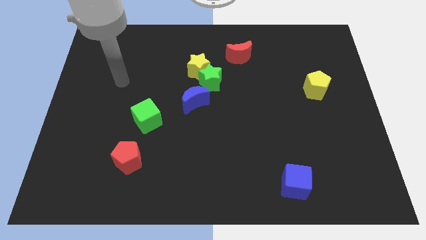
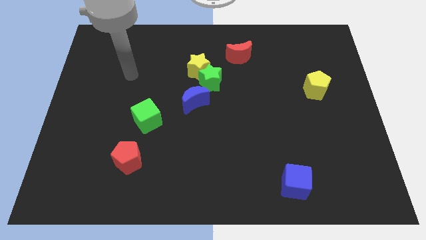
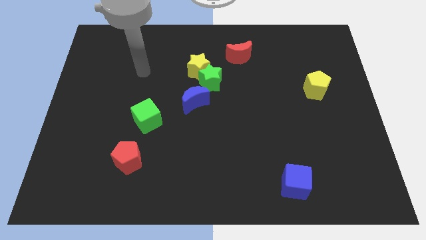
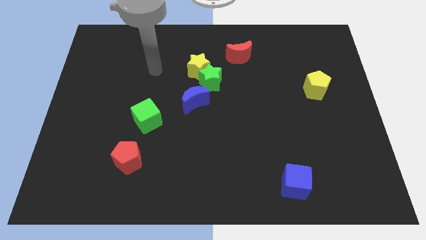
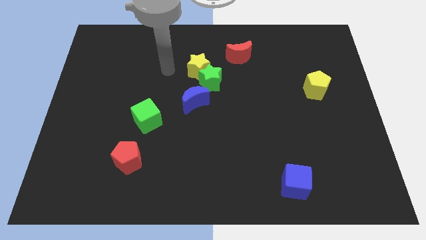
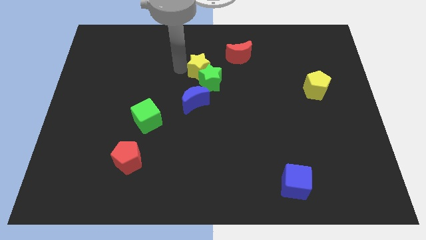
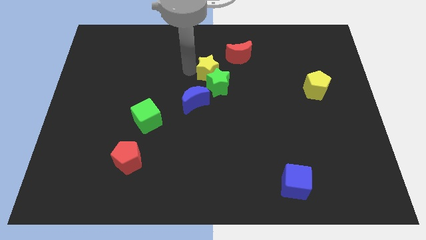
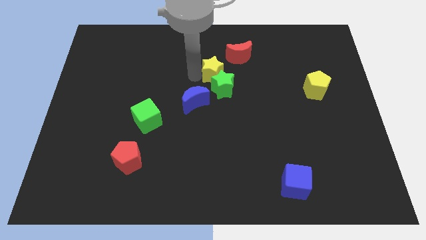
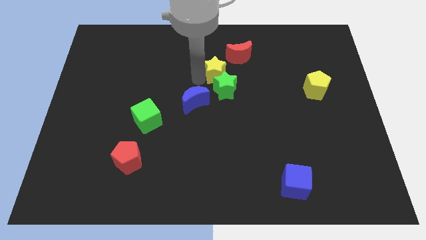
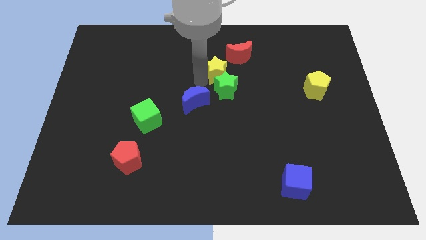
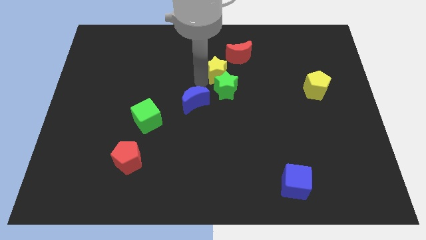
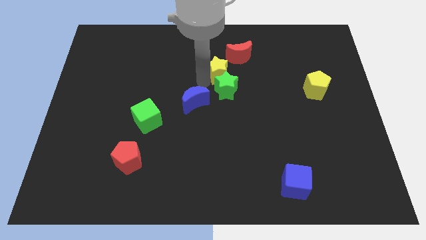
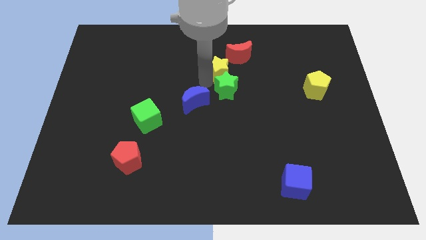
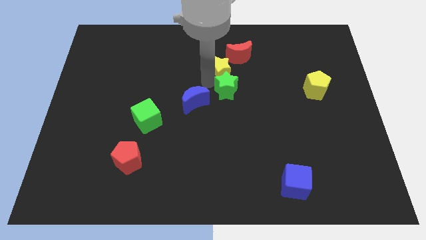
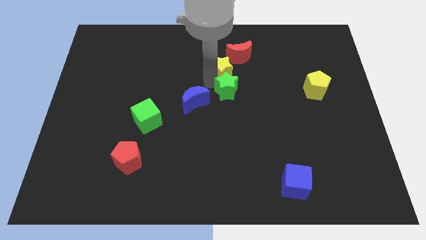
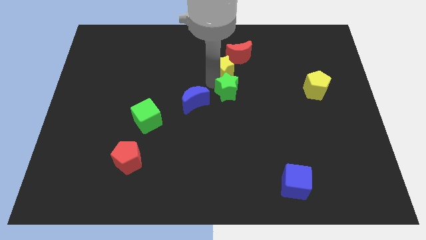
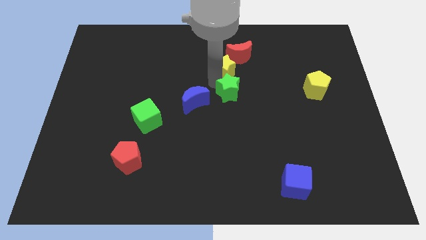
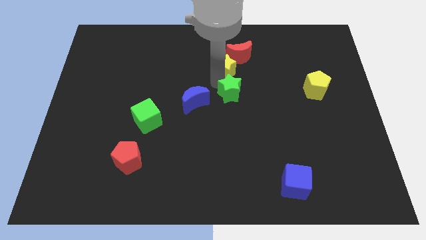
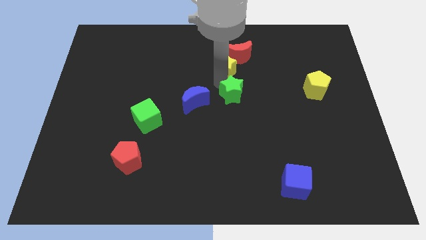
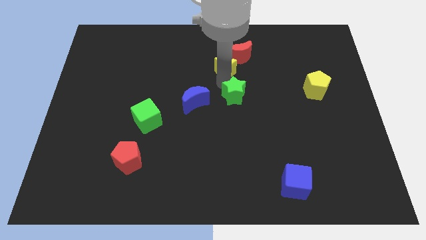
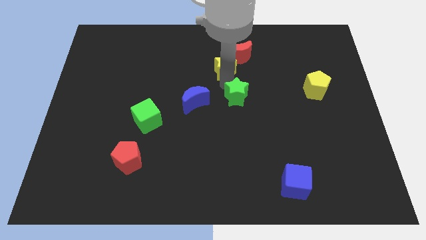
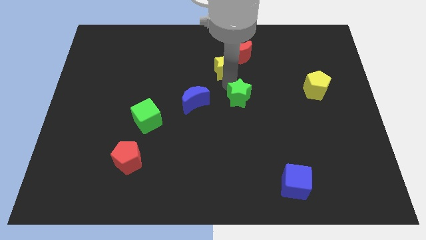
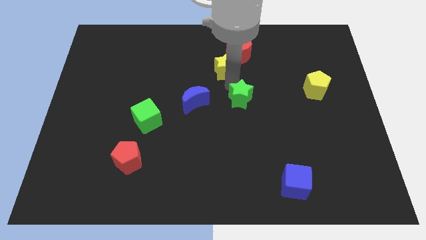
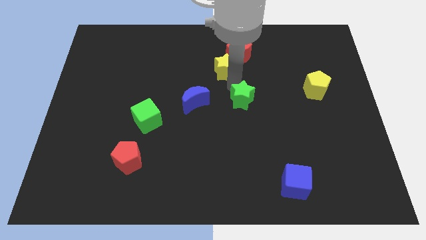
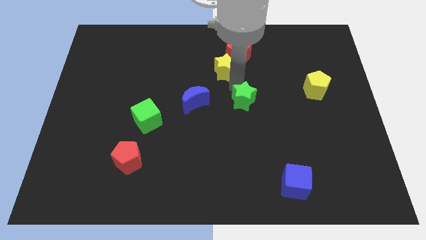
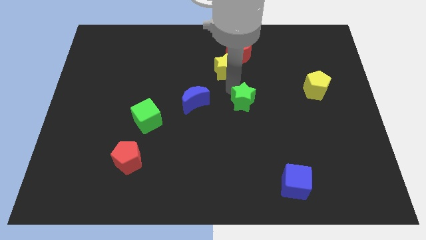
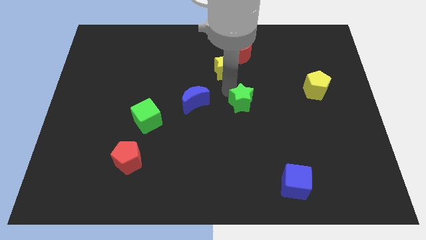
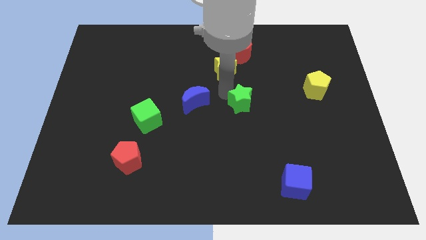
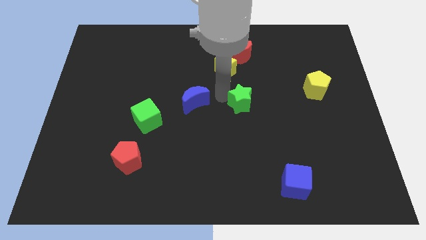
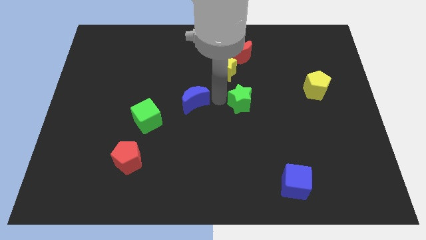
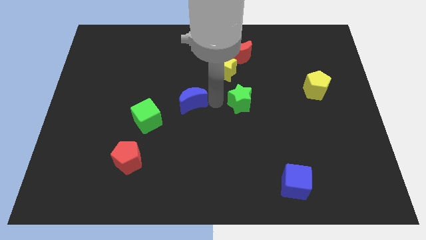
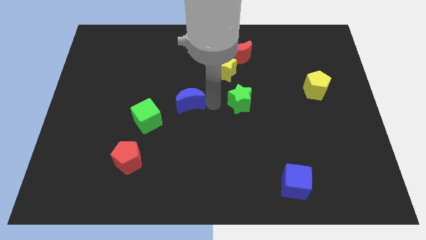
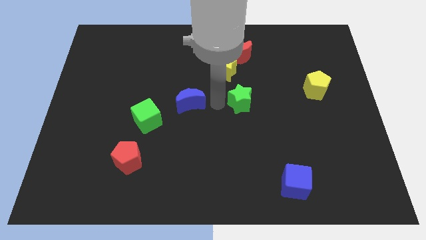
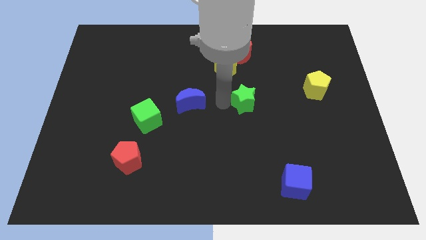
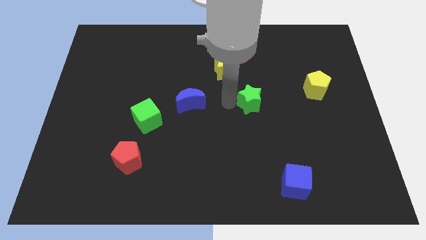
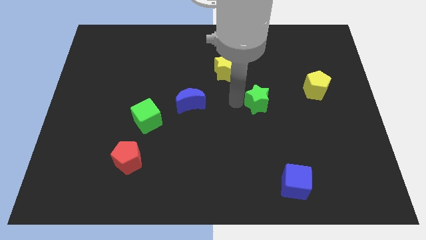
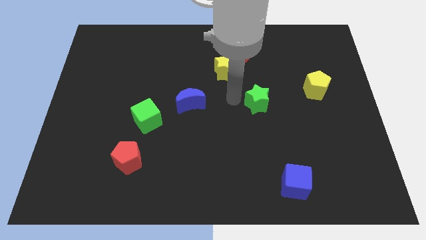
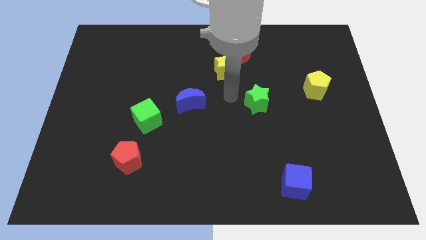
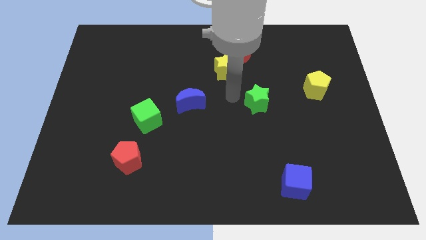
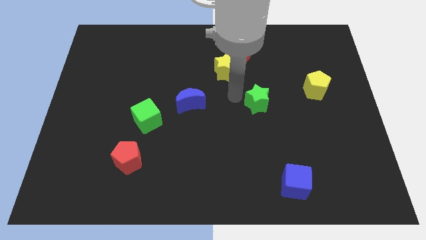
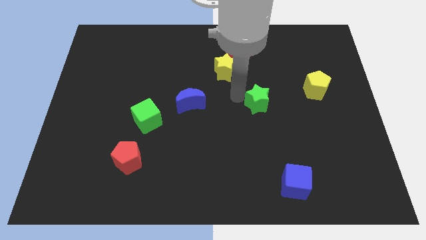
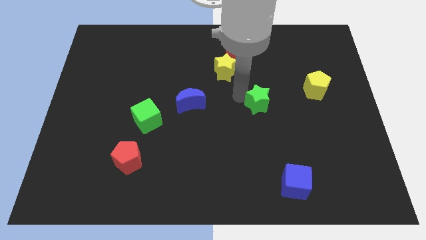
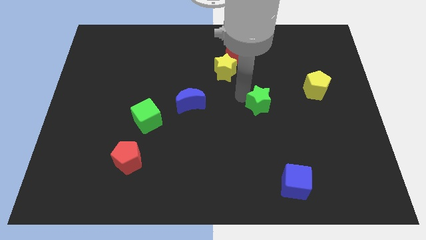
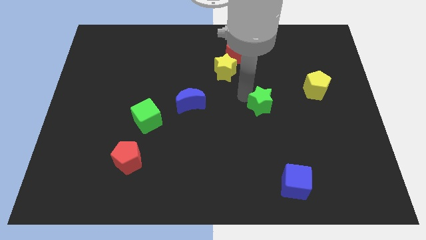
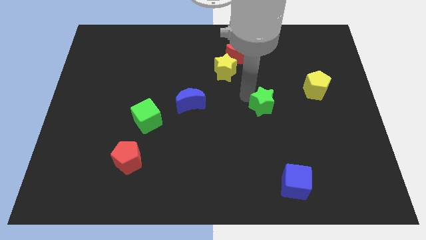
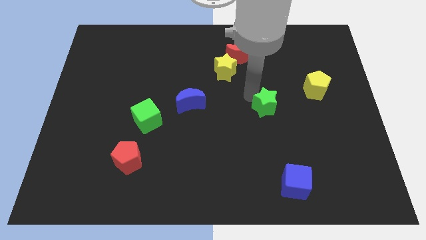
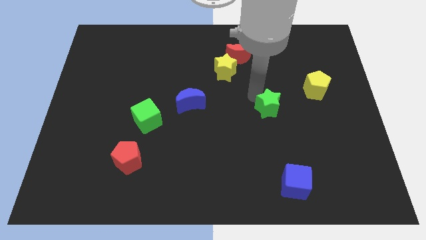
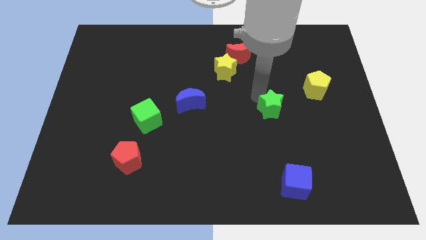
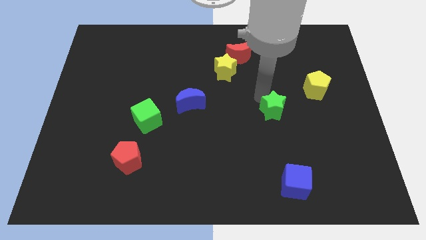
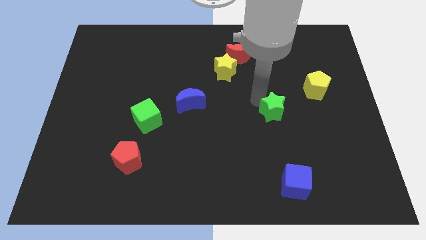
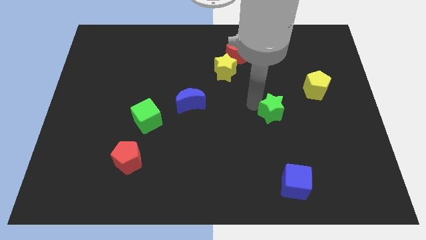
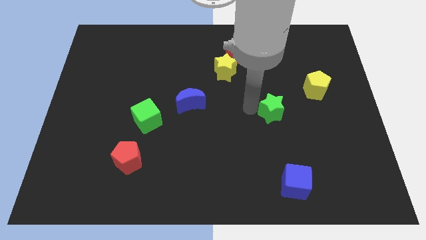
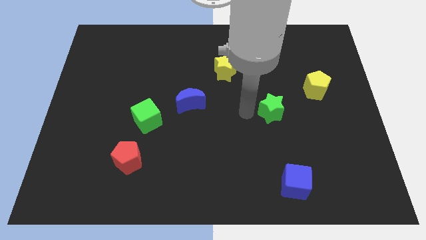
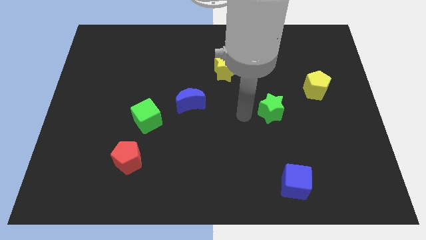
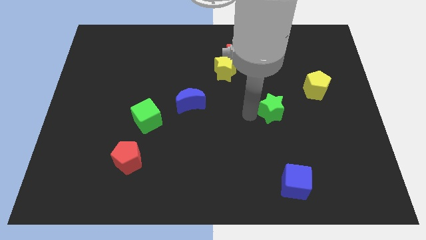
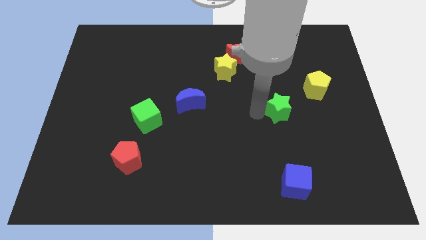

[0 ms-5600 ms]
move the green star to the bottom left side of the yellow pentagon

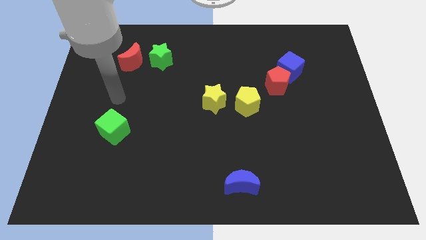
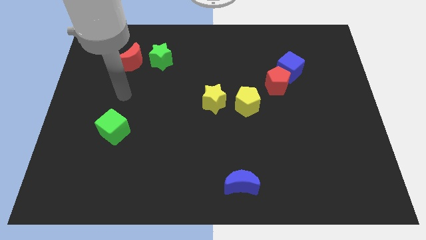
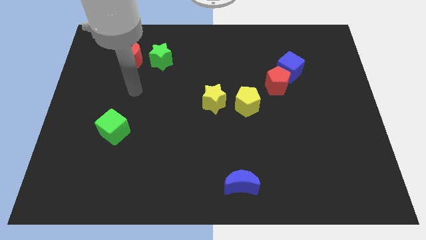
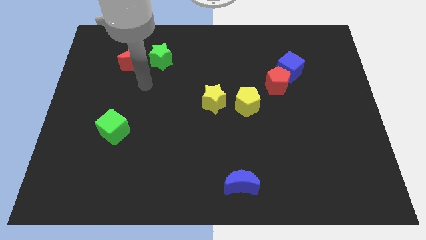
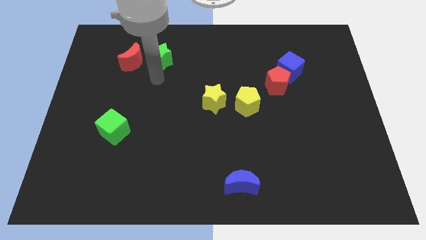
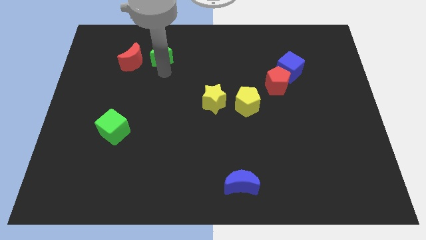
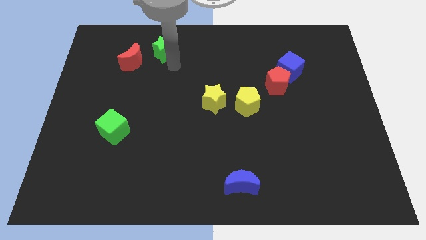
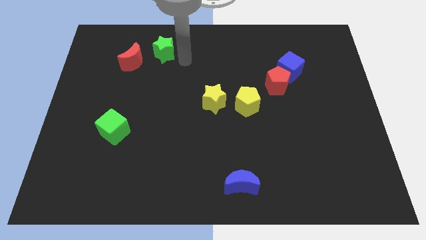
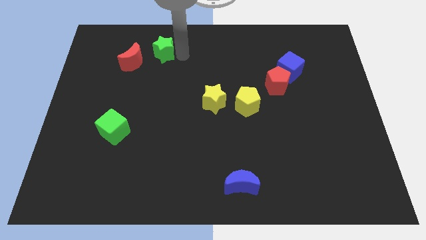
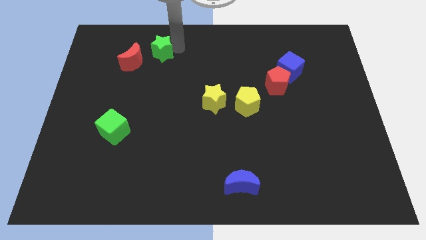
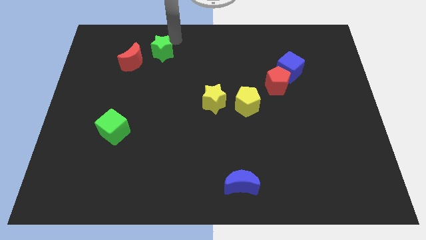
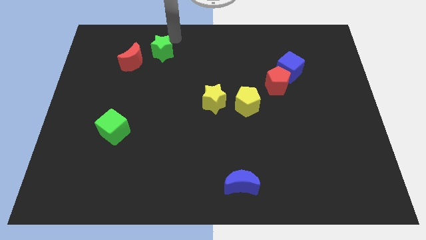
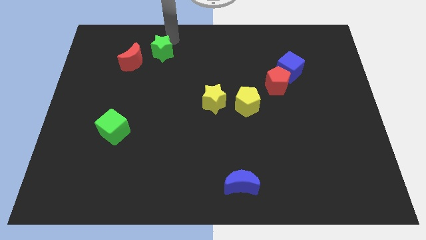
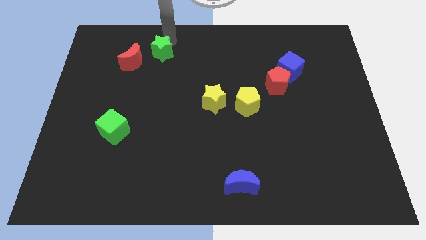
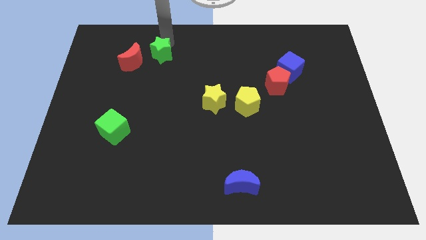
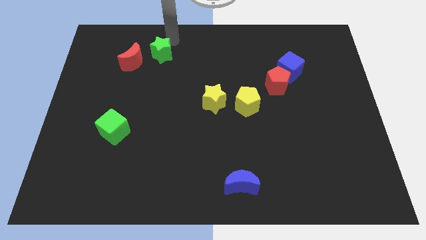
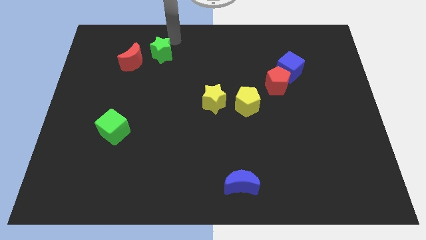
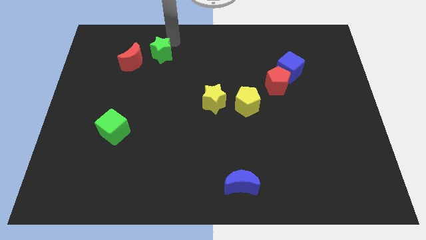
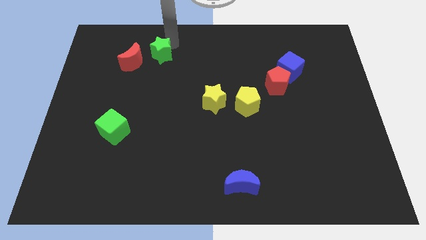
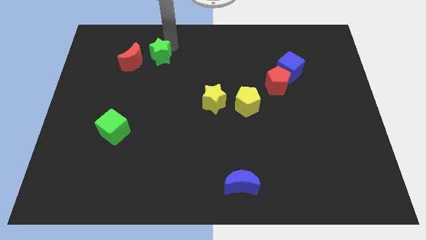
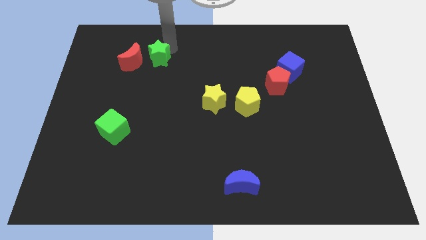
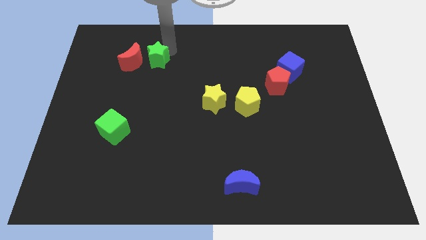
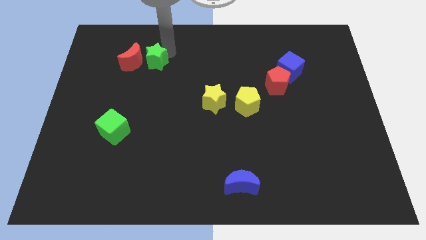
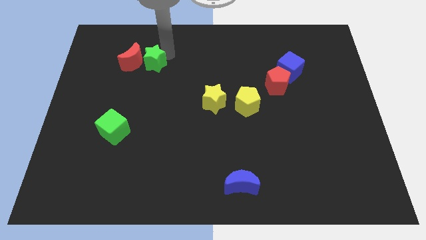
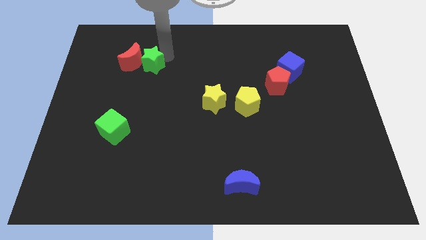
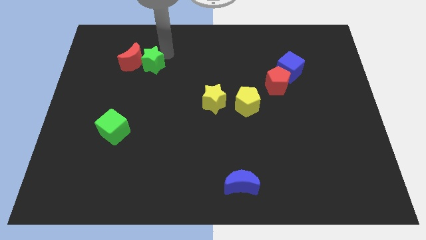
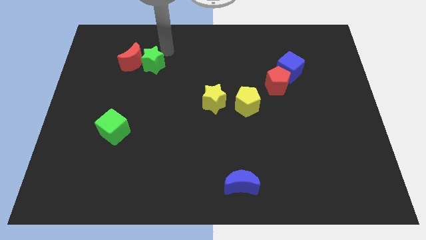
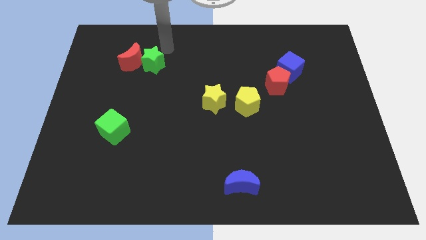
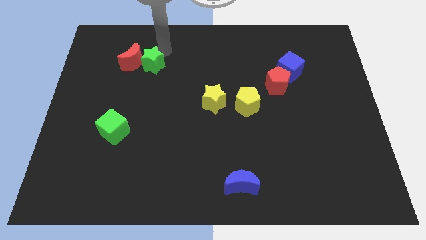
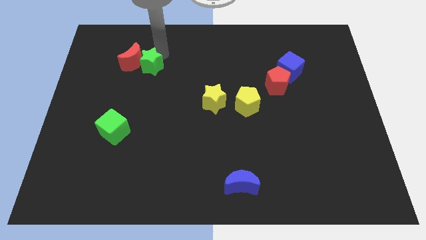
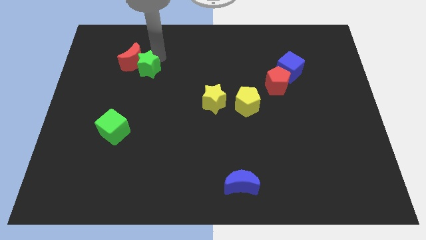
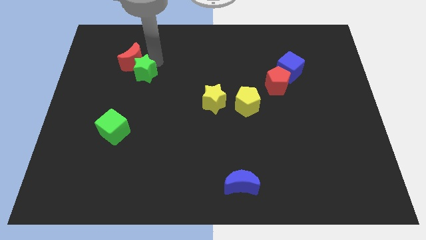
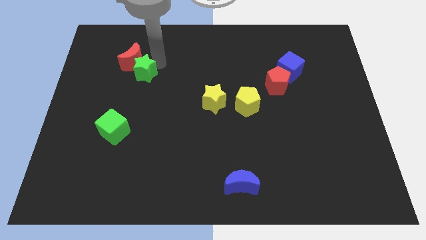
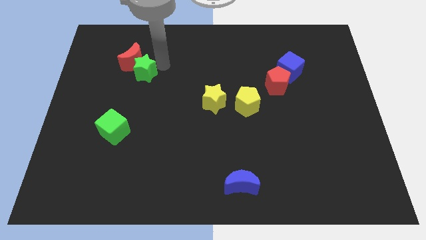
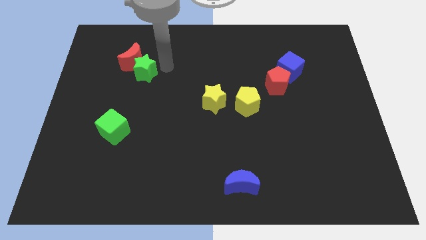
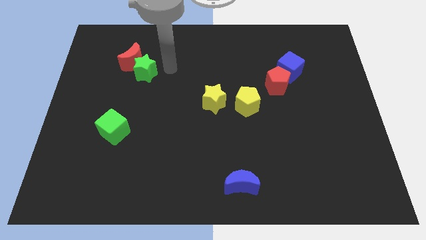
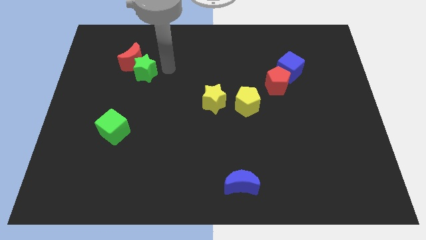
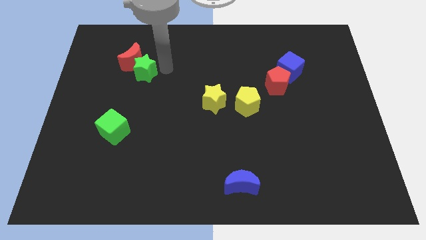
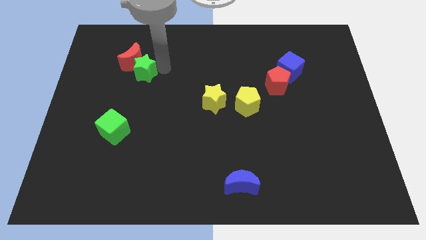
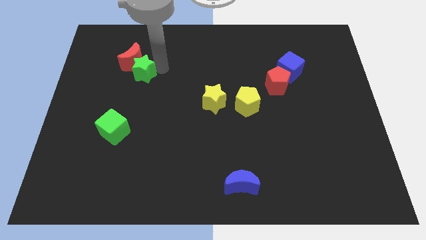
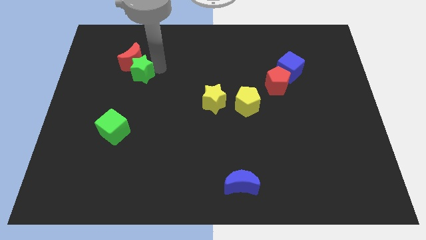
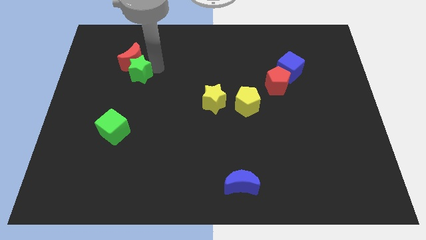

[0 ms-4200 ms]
slide the green star diagonally down and to the left of the red moon
